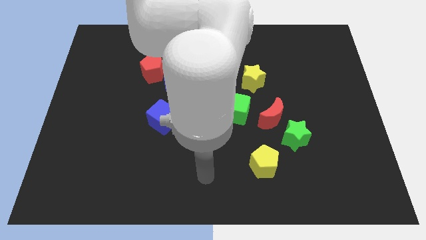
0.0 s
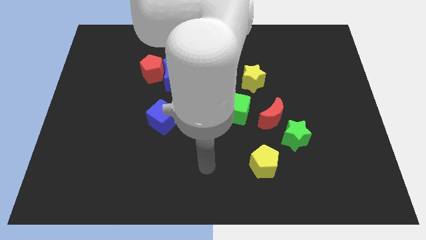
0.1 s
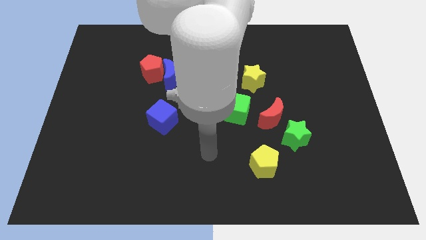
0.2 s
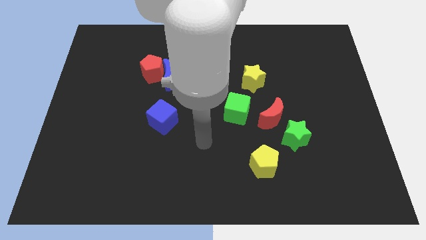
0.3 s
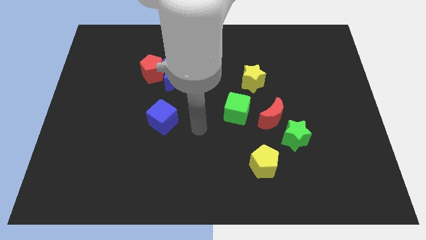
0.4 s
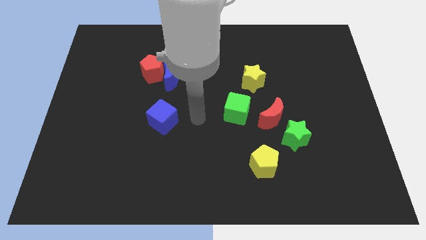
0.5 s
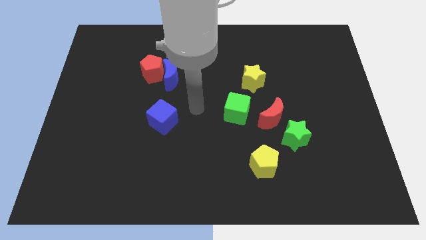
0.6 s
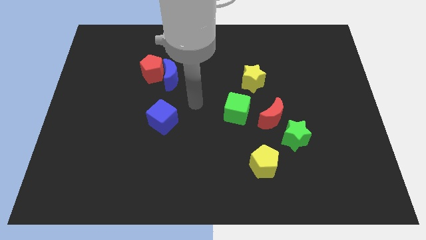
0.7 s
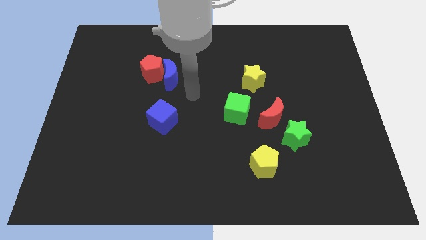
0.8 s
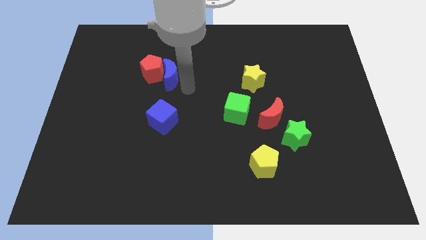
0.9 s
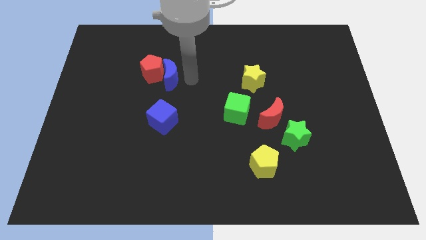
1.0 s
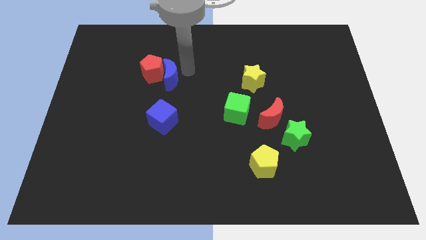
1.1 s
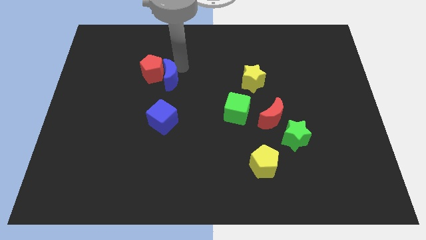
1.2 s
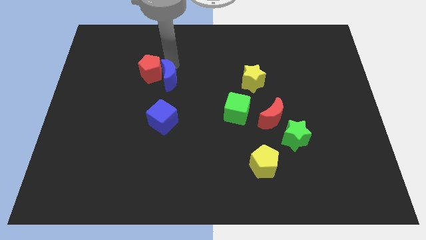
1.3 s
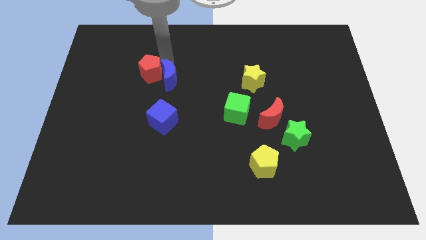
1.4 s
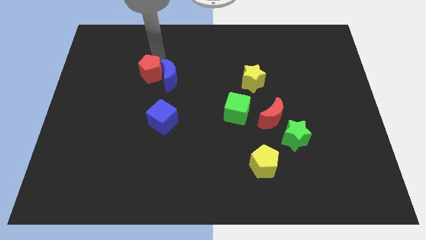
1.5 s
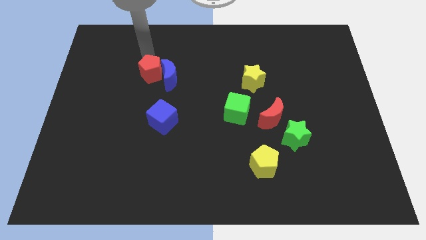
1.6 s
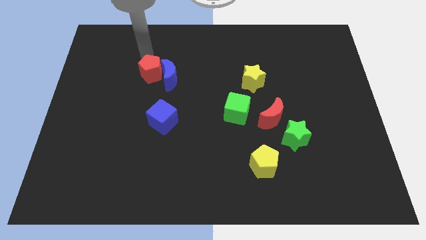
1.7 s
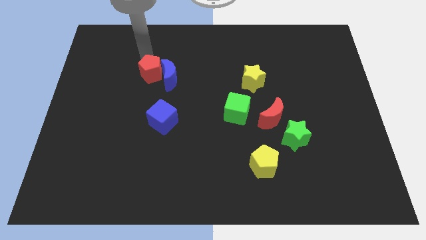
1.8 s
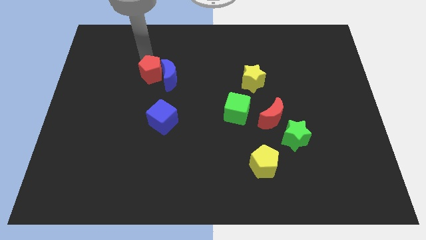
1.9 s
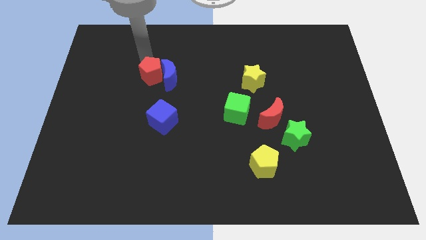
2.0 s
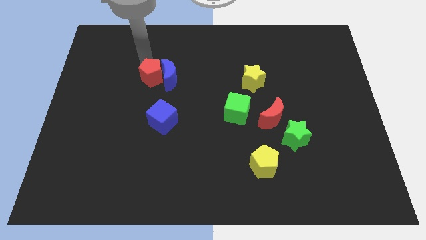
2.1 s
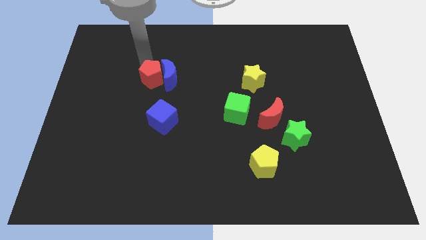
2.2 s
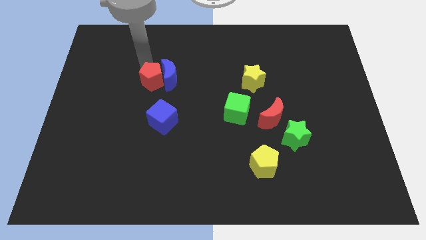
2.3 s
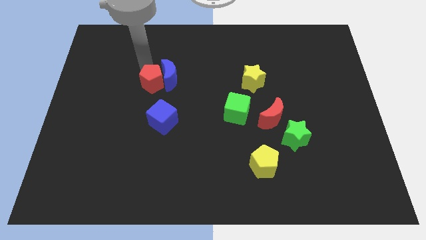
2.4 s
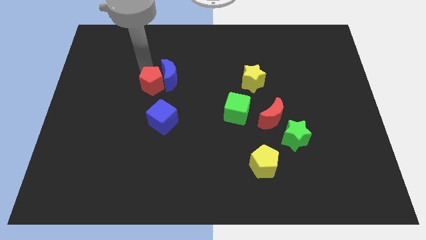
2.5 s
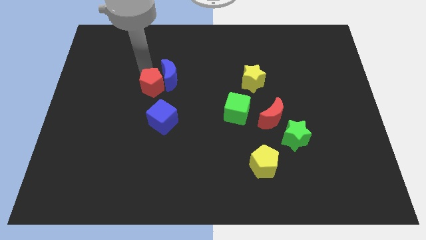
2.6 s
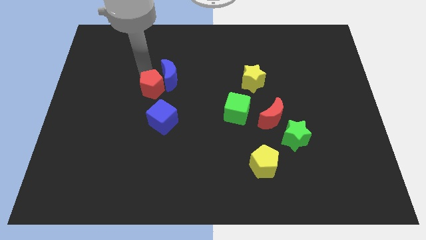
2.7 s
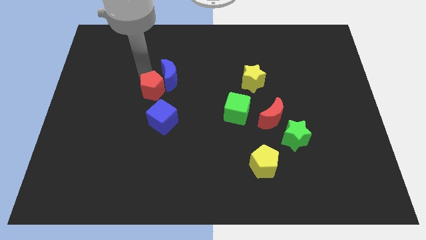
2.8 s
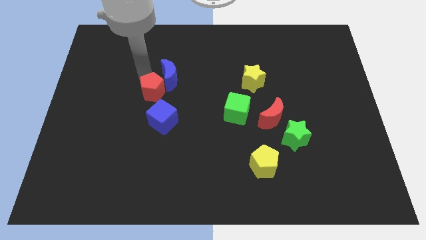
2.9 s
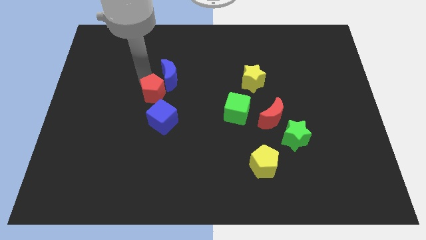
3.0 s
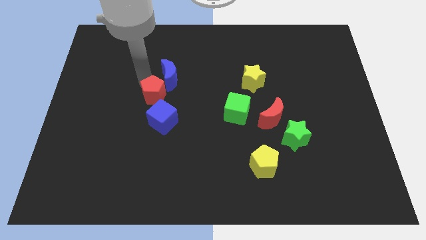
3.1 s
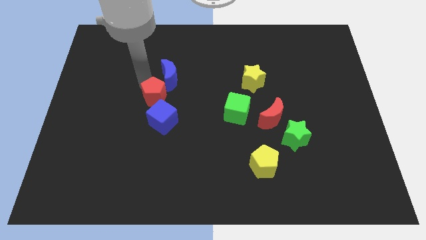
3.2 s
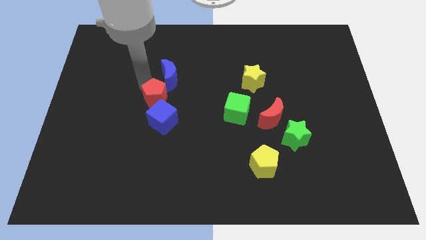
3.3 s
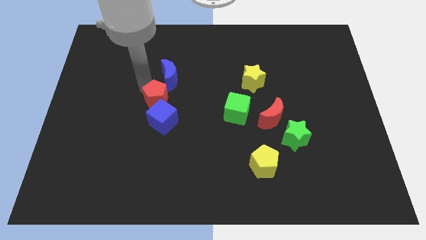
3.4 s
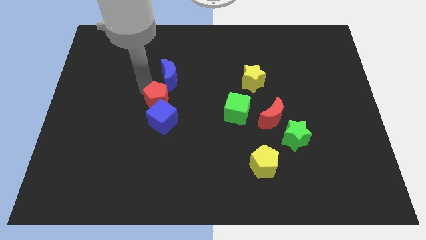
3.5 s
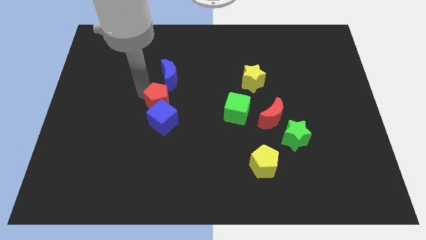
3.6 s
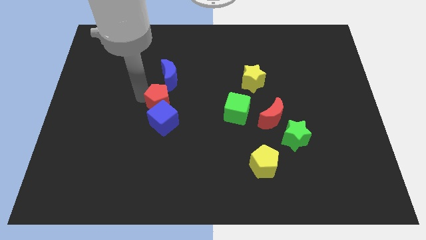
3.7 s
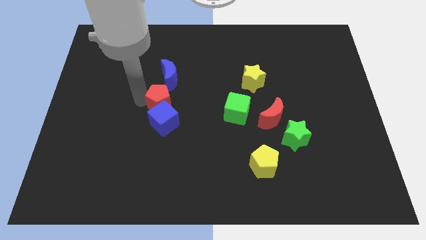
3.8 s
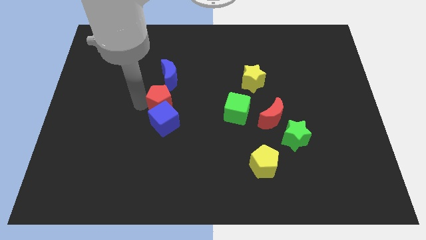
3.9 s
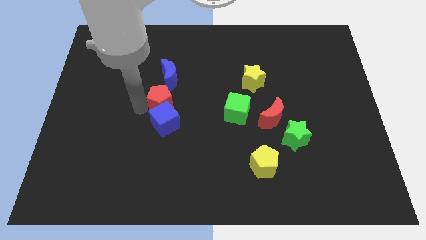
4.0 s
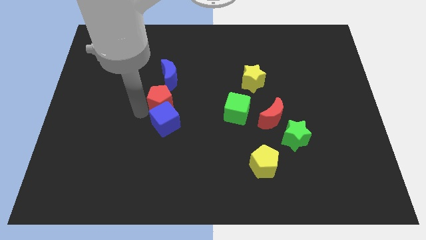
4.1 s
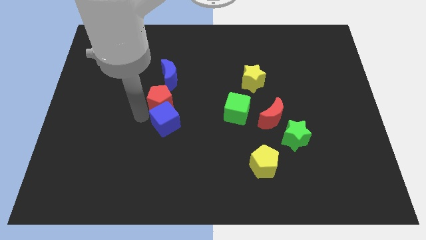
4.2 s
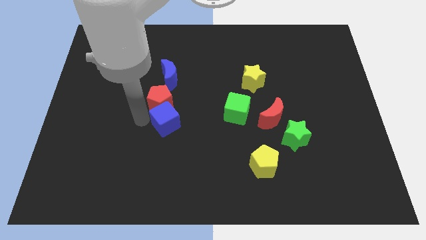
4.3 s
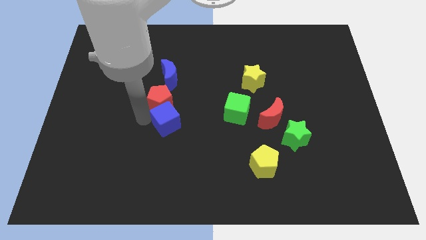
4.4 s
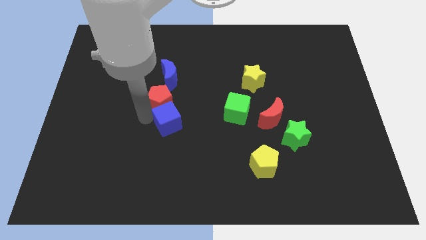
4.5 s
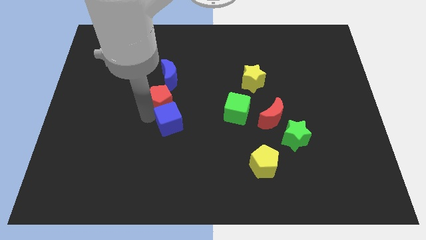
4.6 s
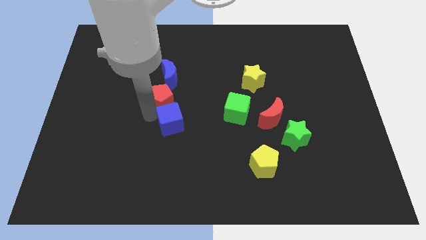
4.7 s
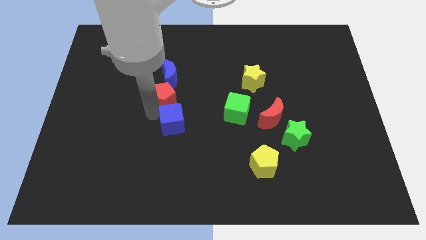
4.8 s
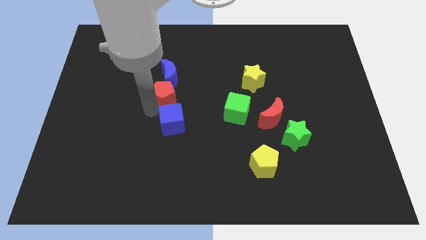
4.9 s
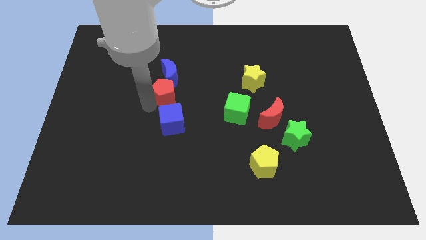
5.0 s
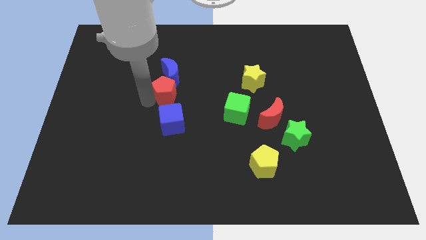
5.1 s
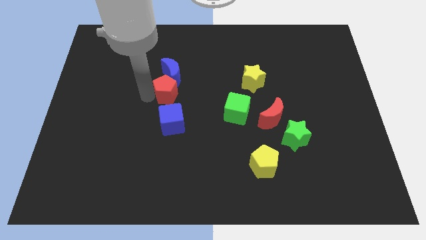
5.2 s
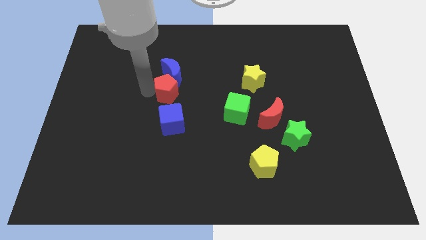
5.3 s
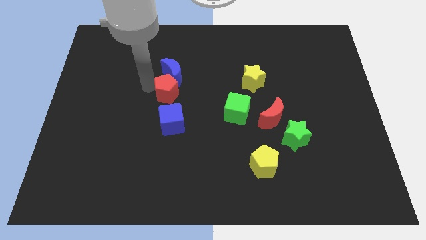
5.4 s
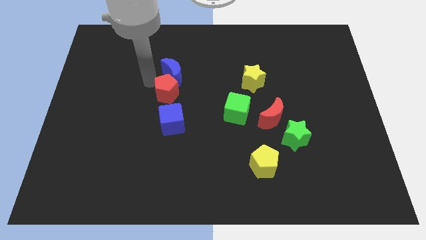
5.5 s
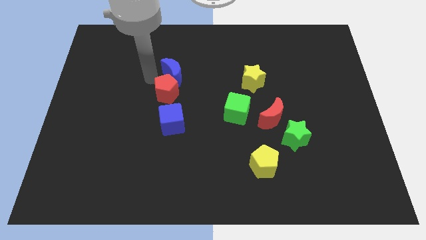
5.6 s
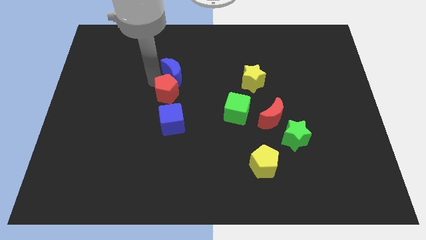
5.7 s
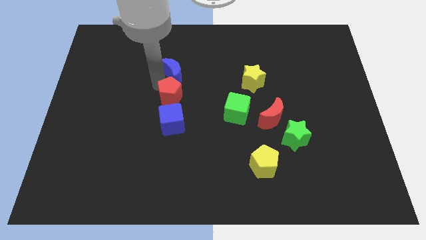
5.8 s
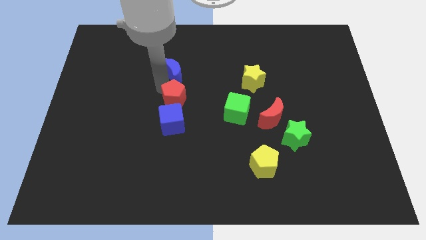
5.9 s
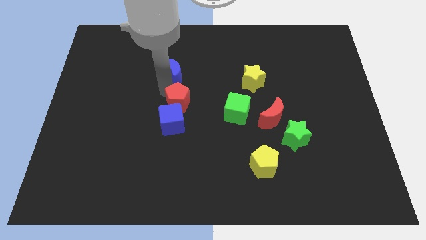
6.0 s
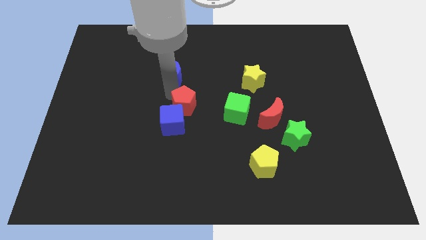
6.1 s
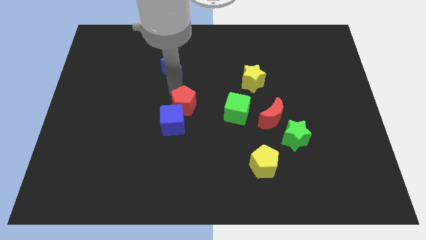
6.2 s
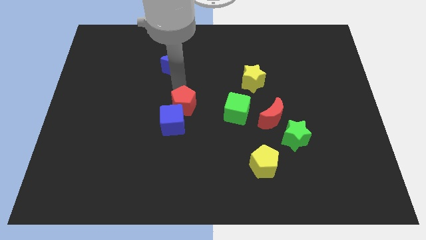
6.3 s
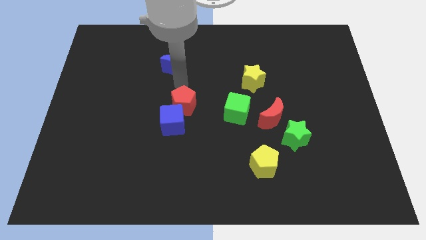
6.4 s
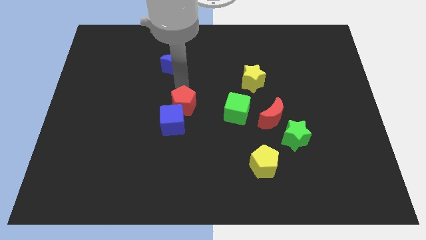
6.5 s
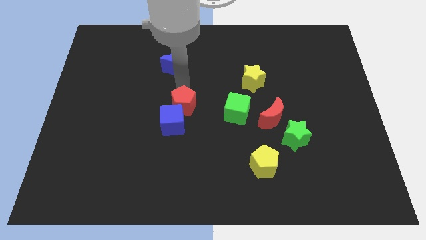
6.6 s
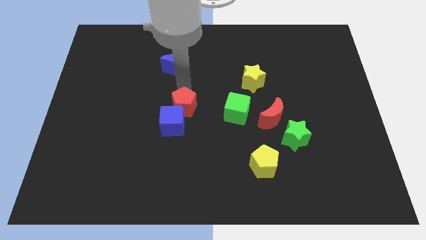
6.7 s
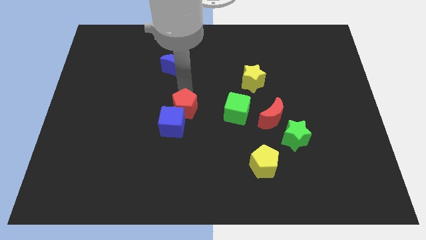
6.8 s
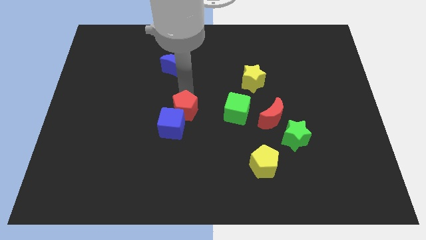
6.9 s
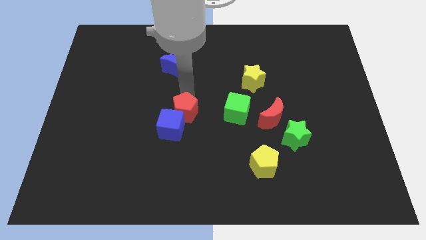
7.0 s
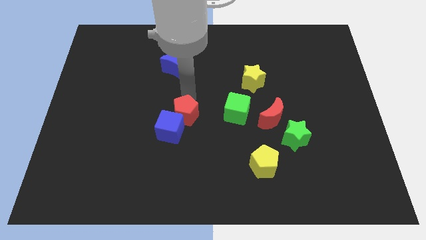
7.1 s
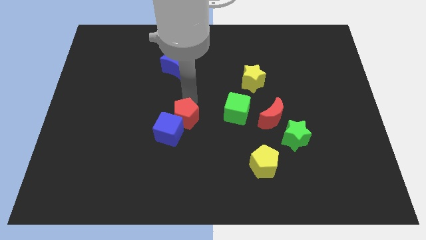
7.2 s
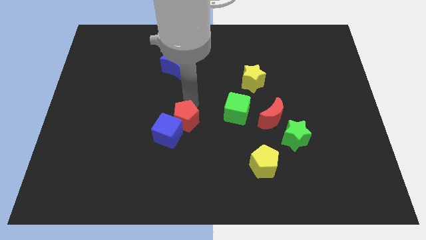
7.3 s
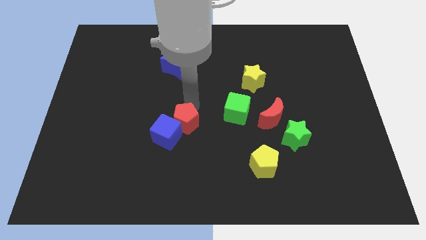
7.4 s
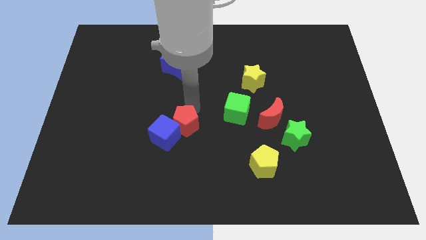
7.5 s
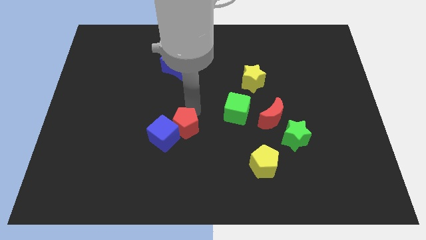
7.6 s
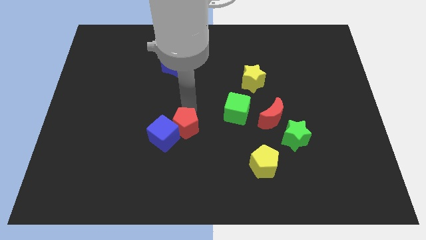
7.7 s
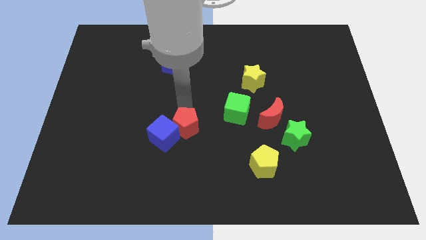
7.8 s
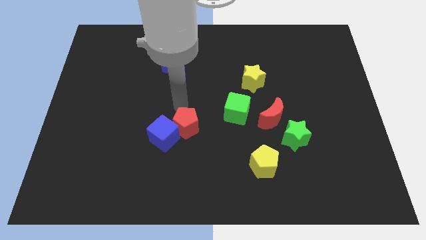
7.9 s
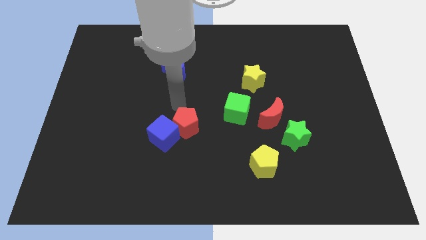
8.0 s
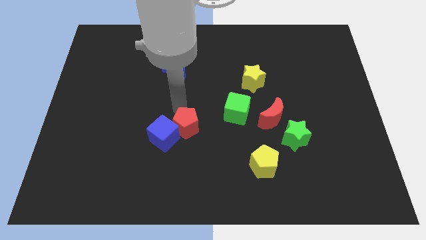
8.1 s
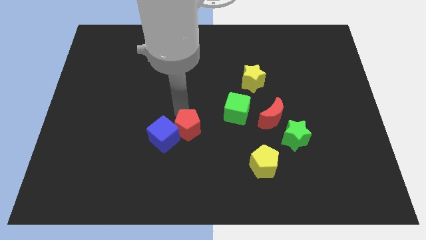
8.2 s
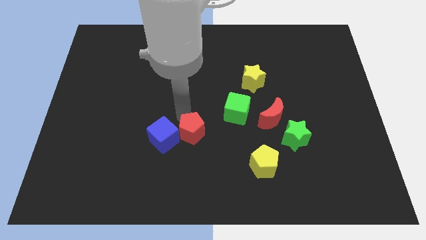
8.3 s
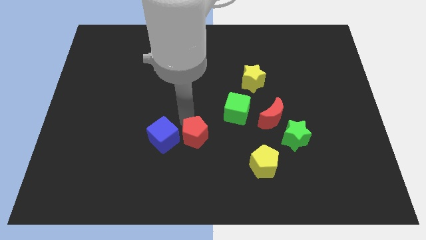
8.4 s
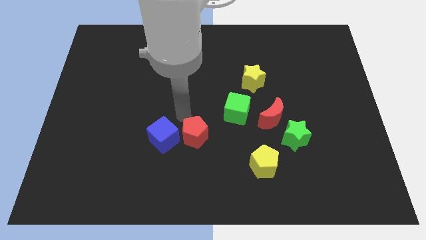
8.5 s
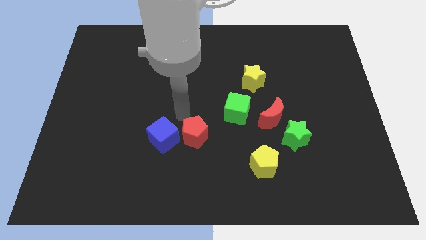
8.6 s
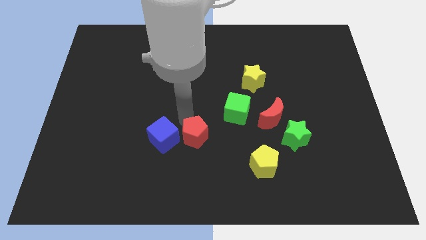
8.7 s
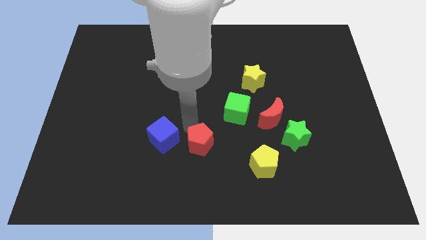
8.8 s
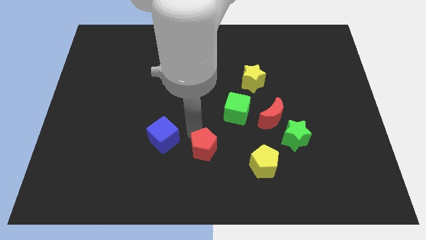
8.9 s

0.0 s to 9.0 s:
move the red pentagon to the left side of the yellow pentagon
